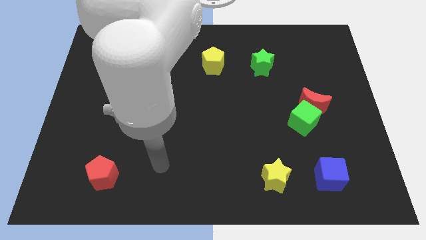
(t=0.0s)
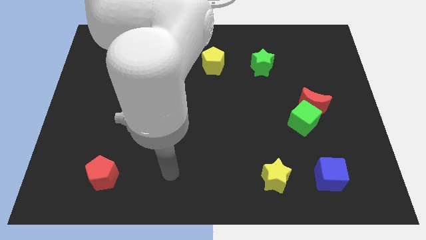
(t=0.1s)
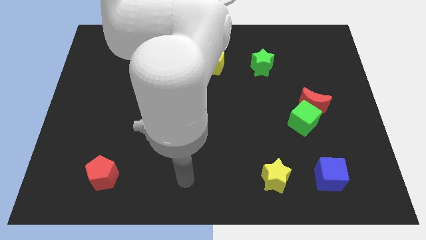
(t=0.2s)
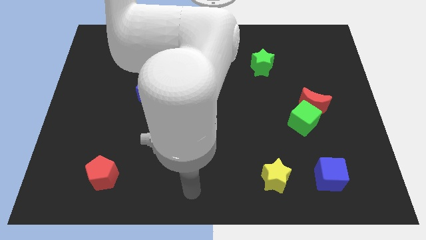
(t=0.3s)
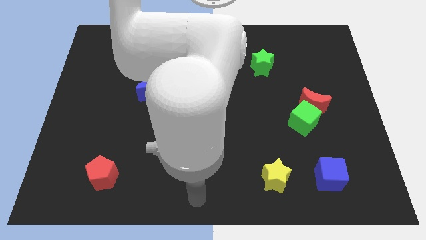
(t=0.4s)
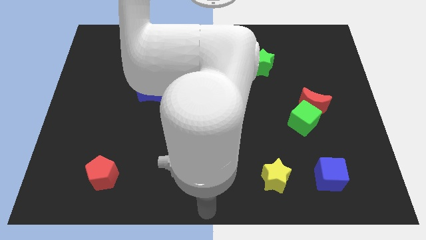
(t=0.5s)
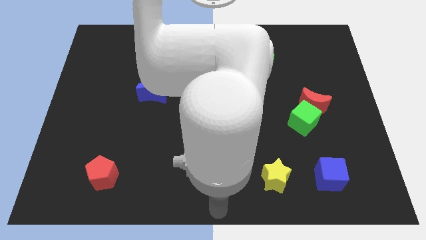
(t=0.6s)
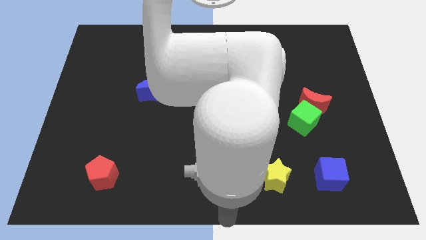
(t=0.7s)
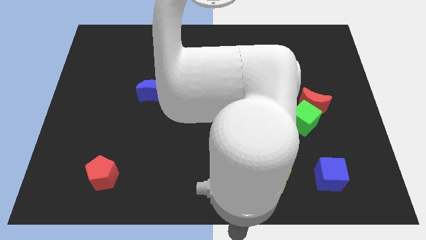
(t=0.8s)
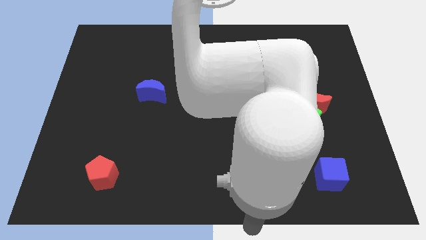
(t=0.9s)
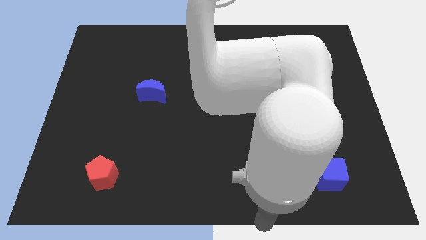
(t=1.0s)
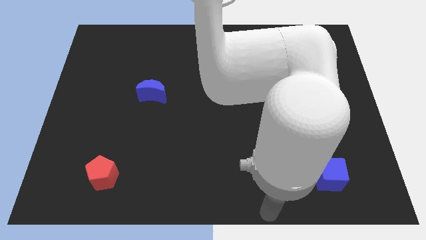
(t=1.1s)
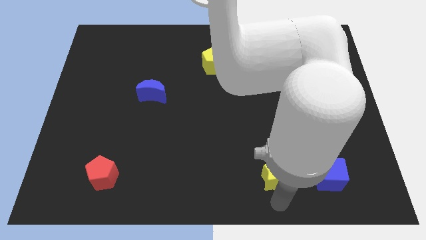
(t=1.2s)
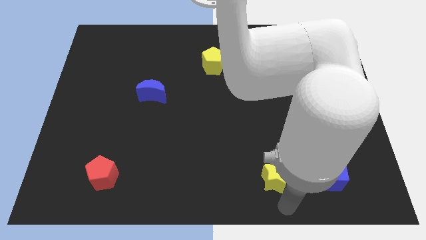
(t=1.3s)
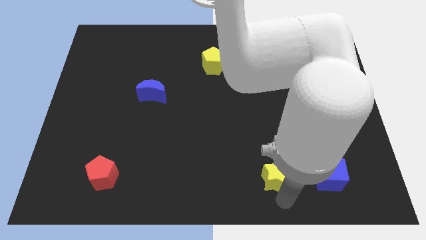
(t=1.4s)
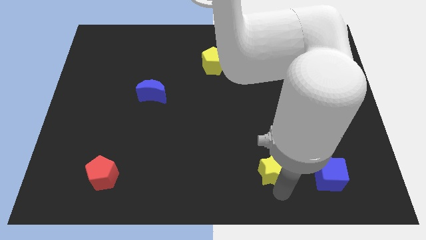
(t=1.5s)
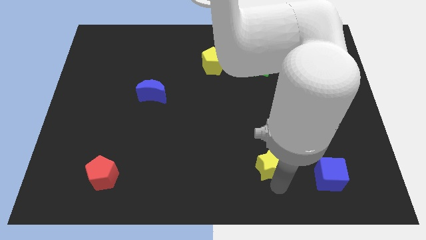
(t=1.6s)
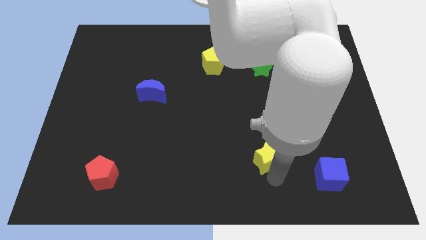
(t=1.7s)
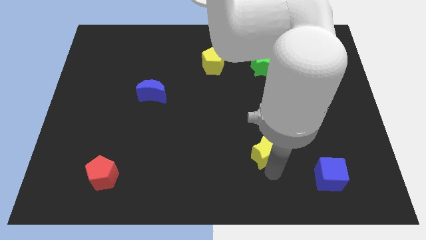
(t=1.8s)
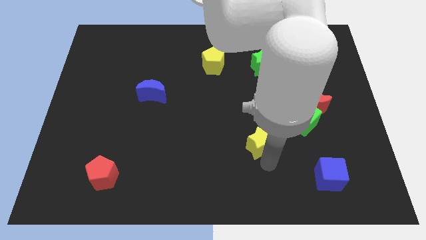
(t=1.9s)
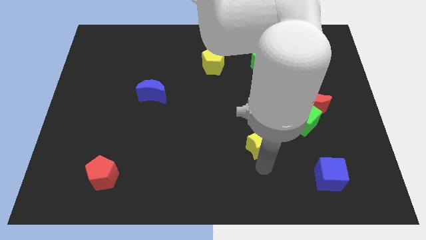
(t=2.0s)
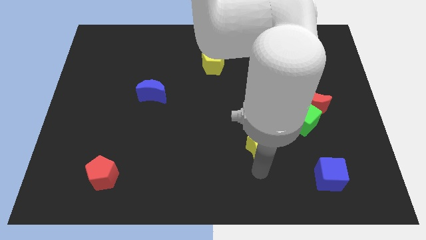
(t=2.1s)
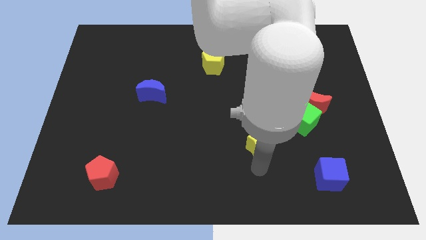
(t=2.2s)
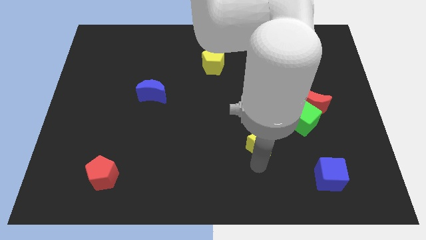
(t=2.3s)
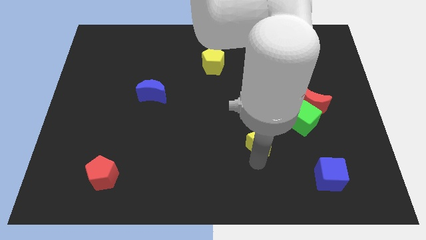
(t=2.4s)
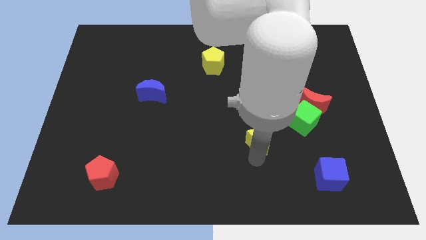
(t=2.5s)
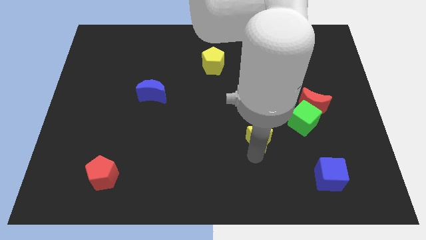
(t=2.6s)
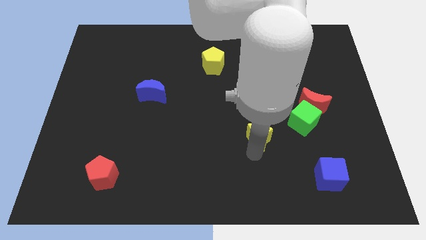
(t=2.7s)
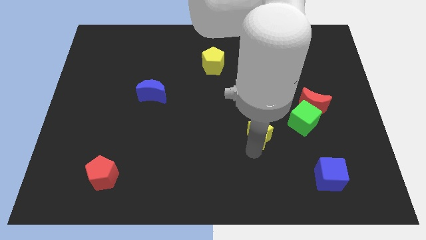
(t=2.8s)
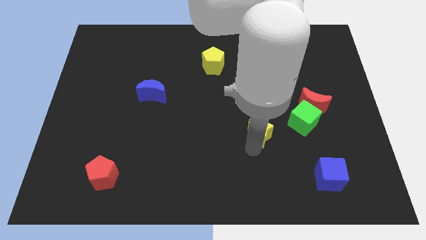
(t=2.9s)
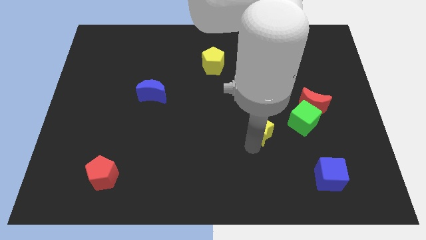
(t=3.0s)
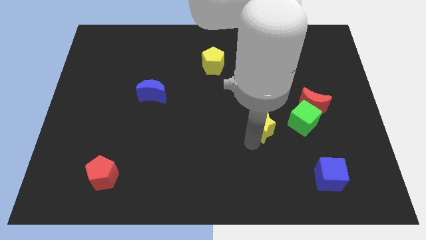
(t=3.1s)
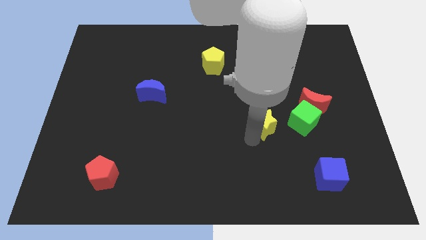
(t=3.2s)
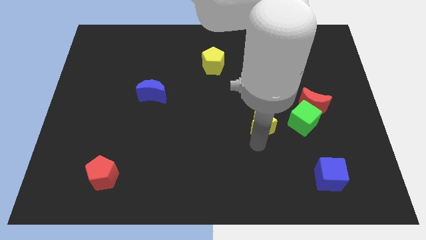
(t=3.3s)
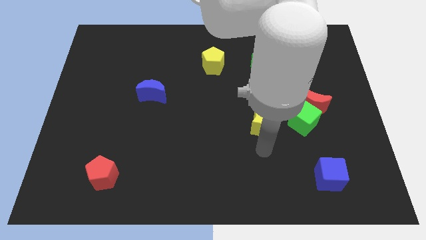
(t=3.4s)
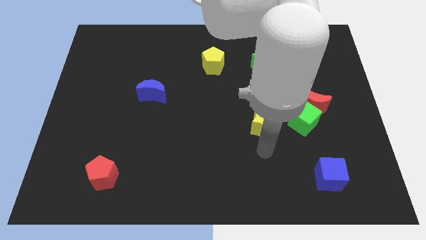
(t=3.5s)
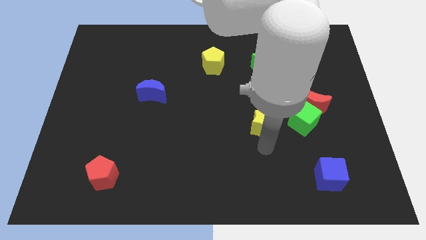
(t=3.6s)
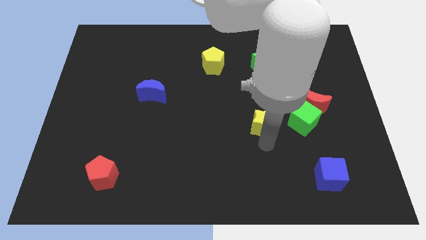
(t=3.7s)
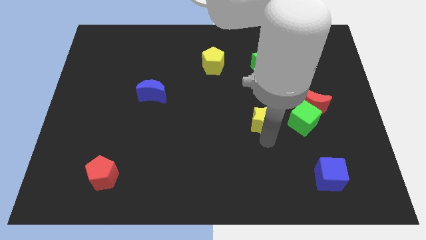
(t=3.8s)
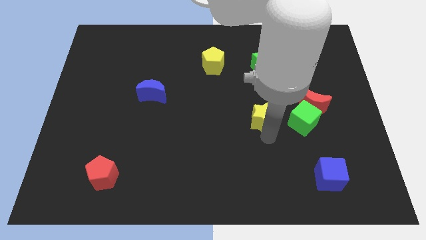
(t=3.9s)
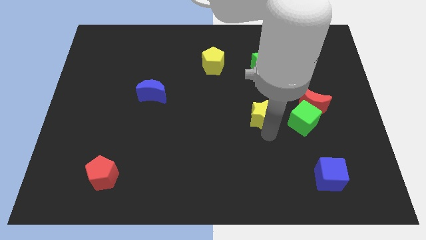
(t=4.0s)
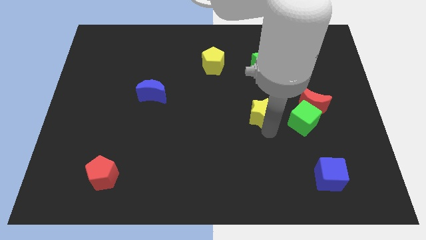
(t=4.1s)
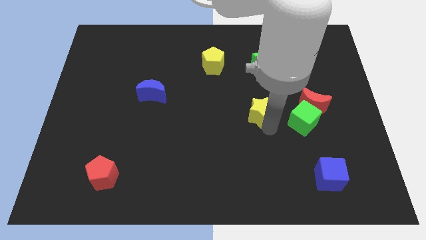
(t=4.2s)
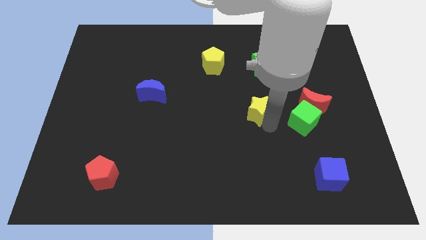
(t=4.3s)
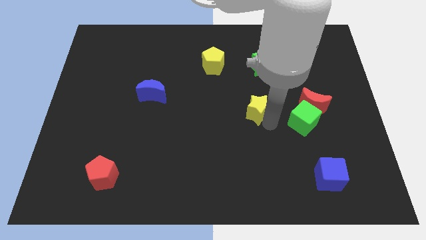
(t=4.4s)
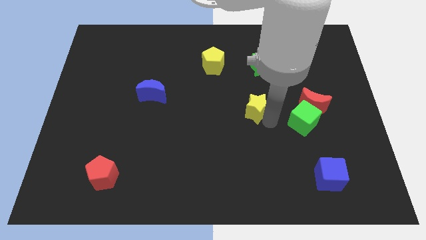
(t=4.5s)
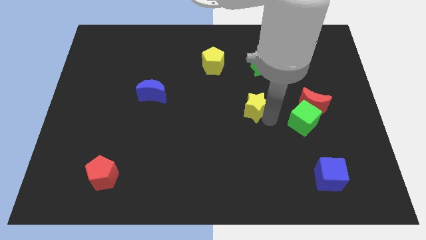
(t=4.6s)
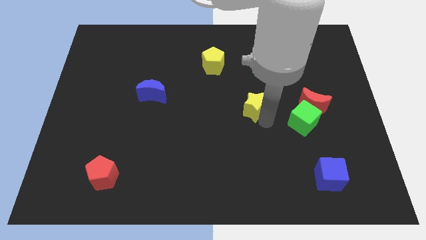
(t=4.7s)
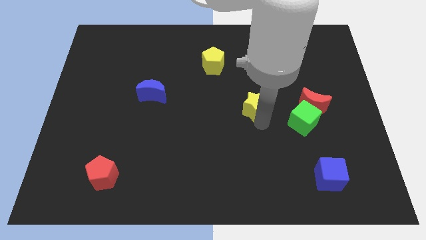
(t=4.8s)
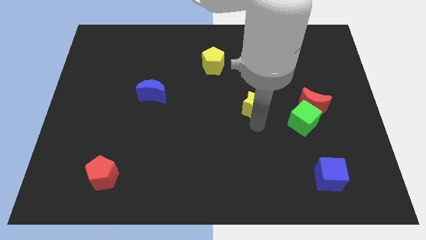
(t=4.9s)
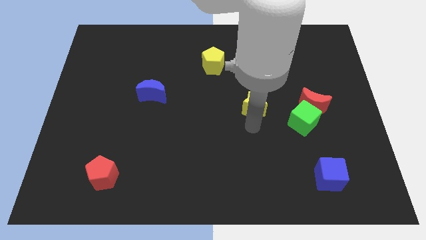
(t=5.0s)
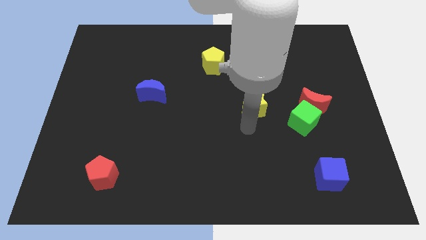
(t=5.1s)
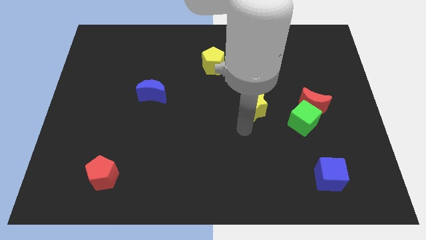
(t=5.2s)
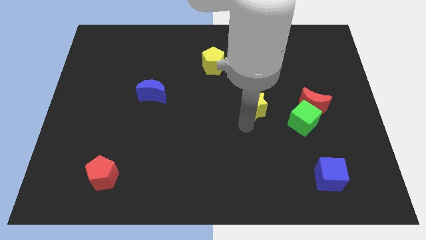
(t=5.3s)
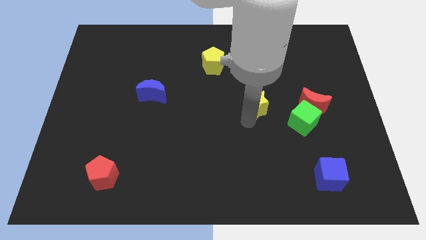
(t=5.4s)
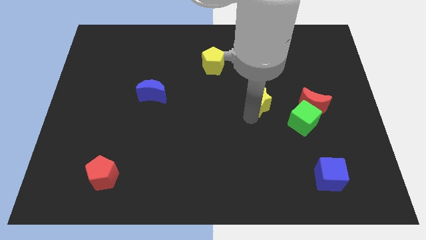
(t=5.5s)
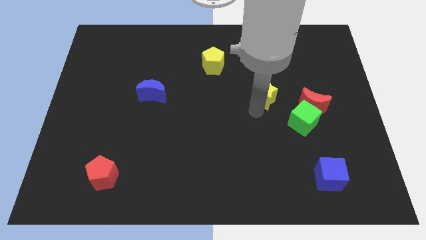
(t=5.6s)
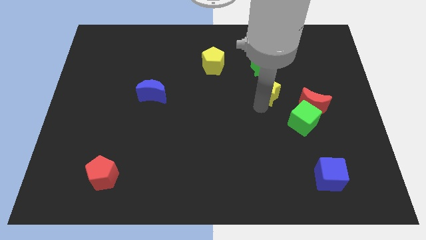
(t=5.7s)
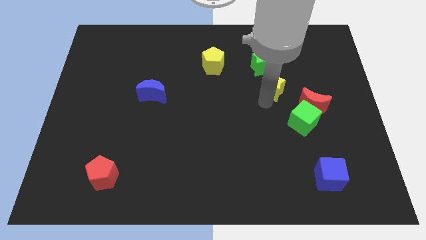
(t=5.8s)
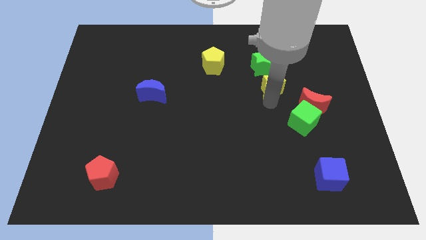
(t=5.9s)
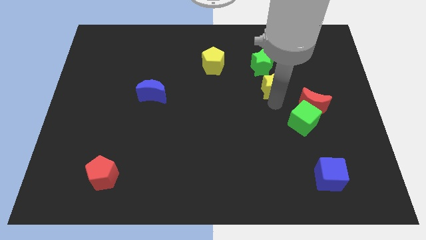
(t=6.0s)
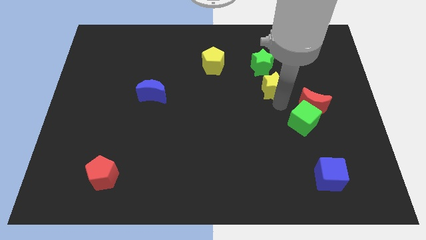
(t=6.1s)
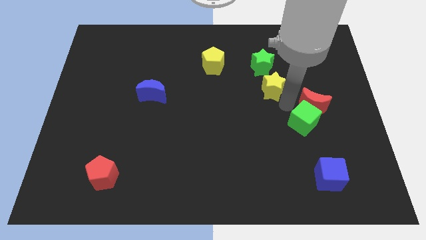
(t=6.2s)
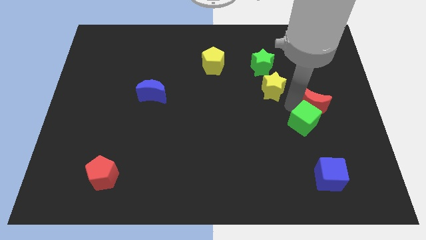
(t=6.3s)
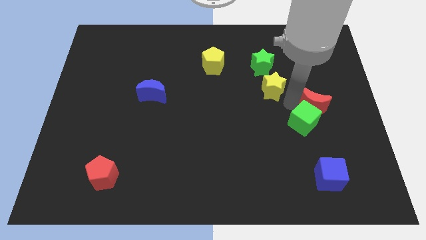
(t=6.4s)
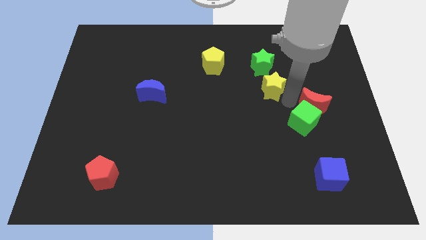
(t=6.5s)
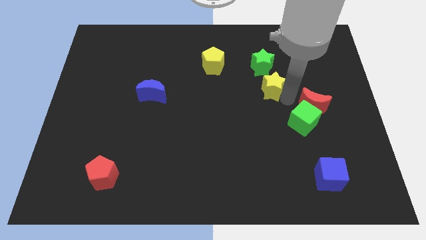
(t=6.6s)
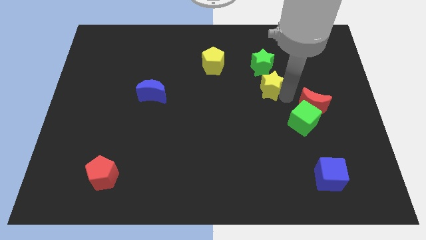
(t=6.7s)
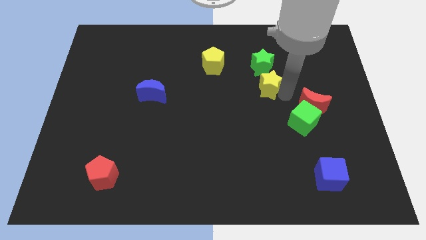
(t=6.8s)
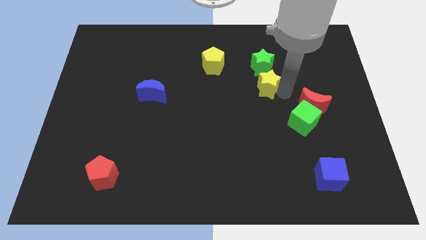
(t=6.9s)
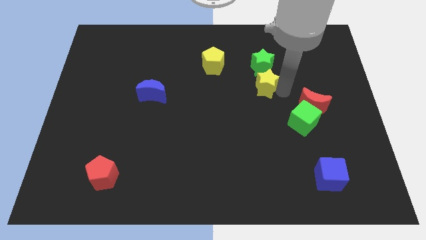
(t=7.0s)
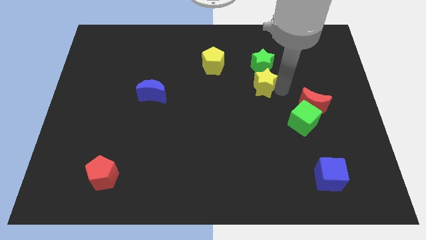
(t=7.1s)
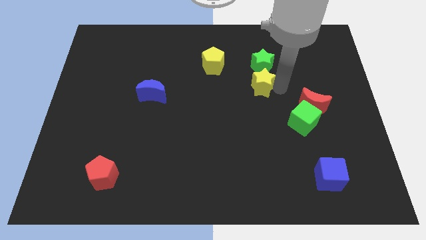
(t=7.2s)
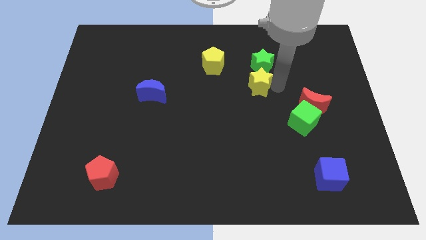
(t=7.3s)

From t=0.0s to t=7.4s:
move the yellow star close to the green star
